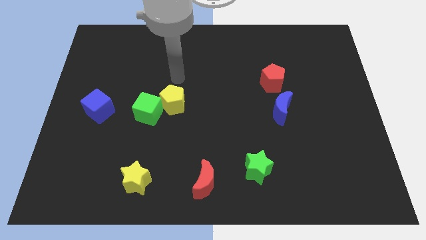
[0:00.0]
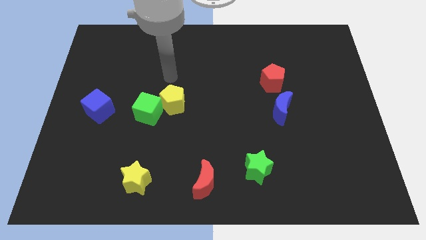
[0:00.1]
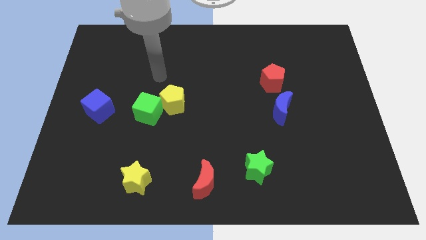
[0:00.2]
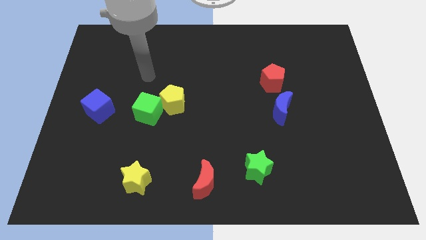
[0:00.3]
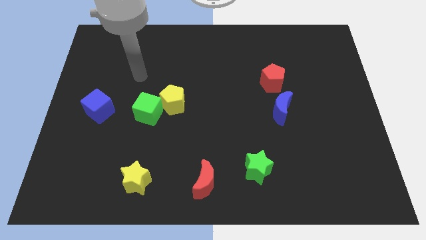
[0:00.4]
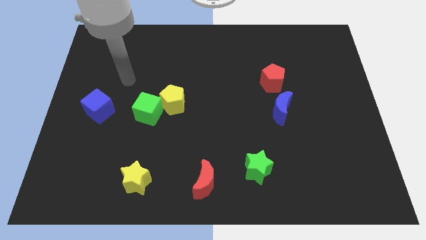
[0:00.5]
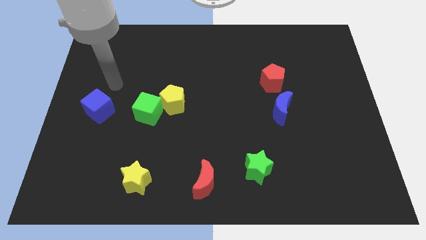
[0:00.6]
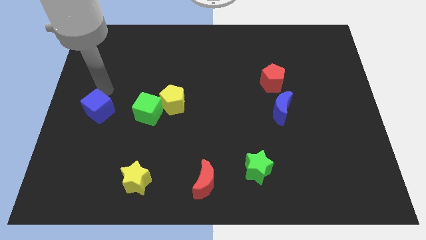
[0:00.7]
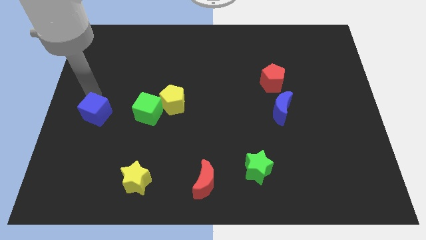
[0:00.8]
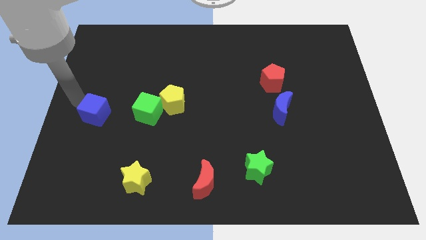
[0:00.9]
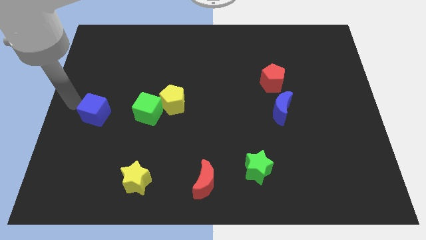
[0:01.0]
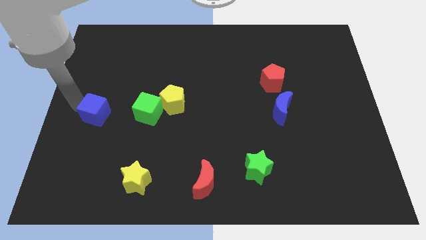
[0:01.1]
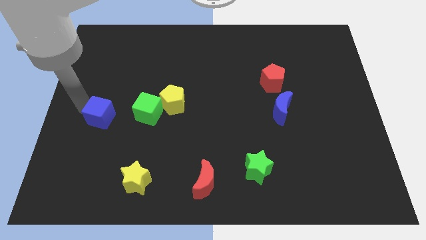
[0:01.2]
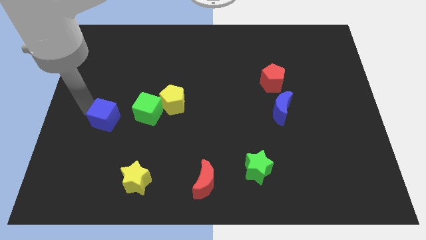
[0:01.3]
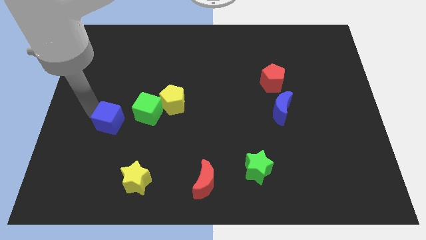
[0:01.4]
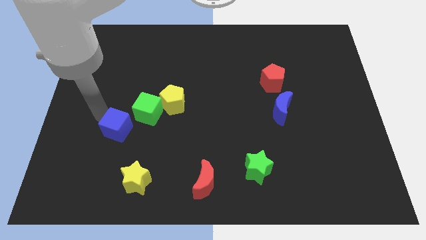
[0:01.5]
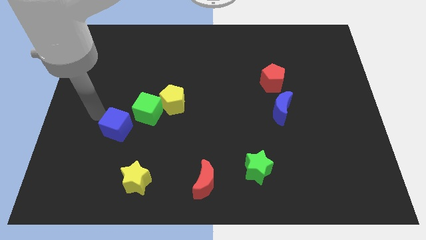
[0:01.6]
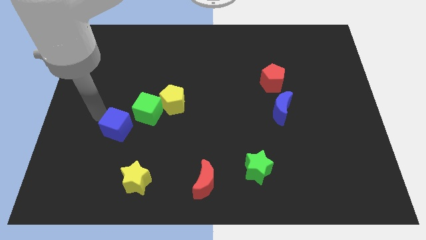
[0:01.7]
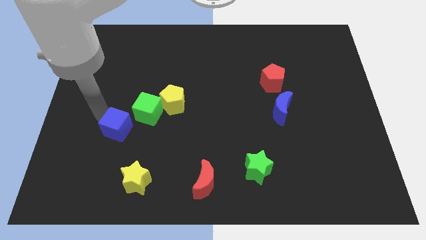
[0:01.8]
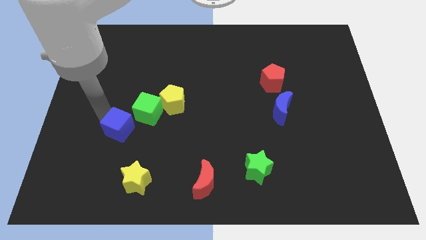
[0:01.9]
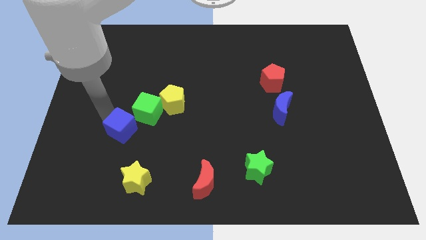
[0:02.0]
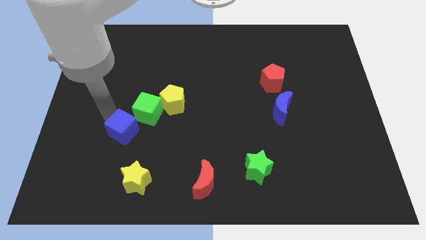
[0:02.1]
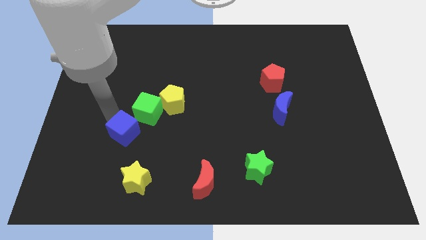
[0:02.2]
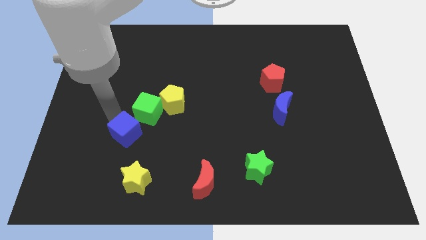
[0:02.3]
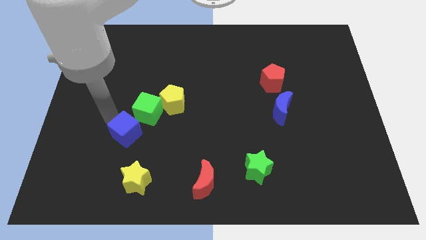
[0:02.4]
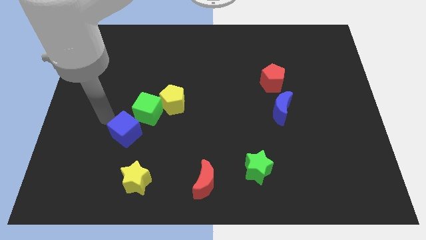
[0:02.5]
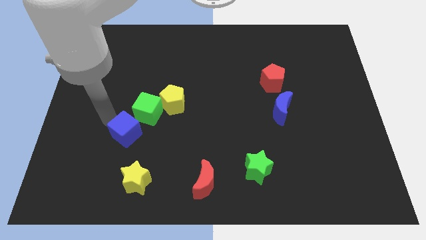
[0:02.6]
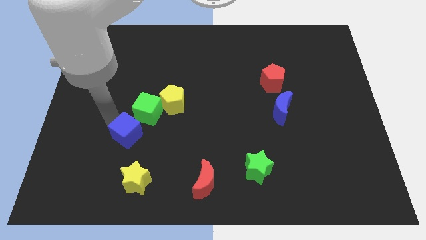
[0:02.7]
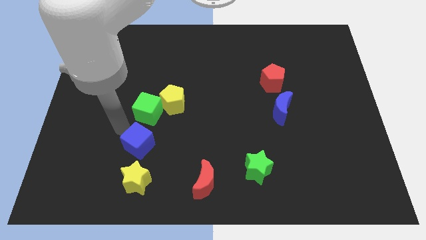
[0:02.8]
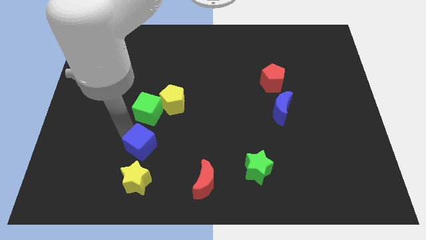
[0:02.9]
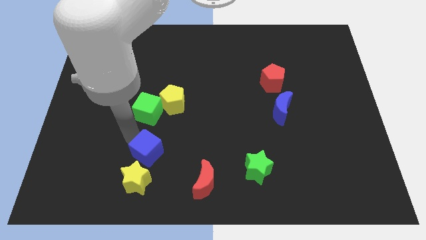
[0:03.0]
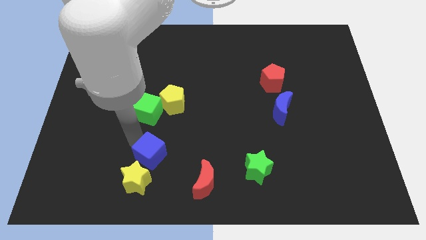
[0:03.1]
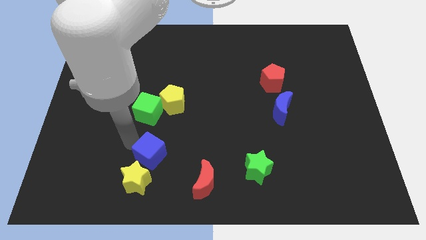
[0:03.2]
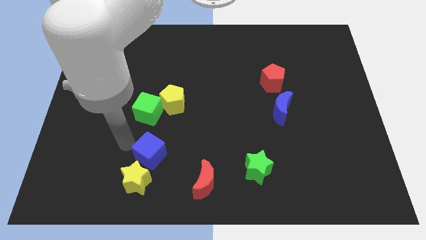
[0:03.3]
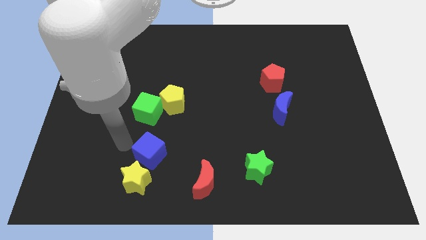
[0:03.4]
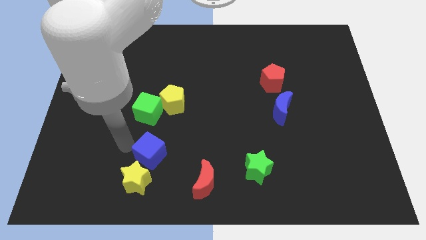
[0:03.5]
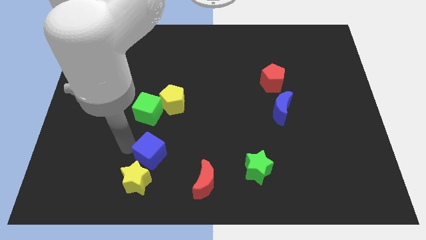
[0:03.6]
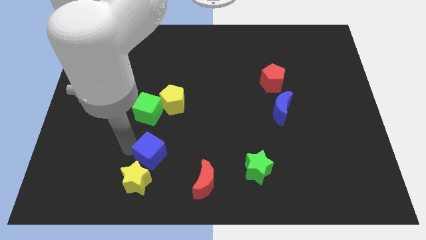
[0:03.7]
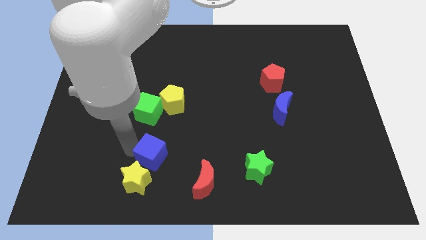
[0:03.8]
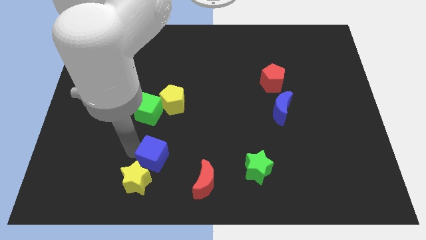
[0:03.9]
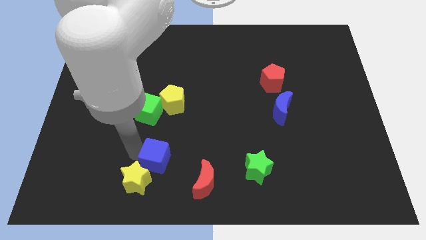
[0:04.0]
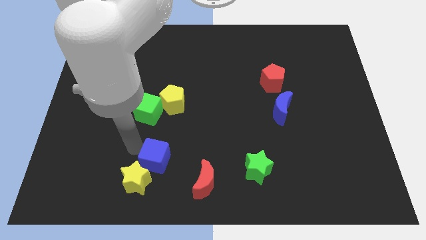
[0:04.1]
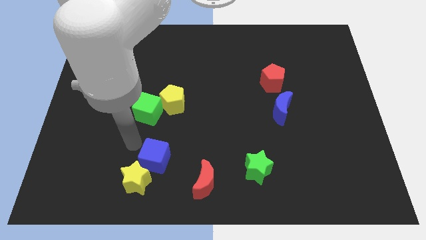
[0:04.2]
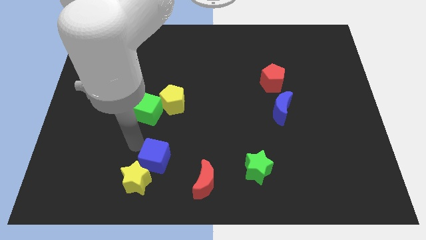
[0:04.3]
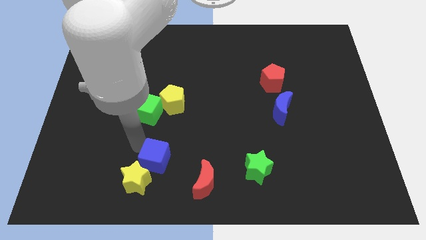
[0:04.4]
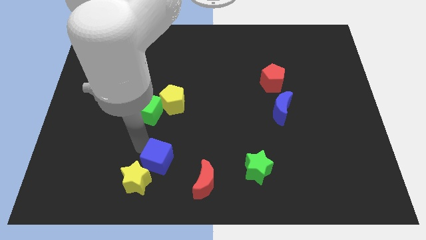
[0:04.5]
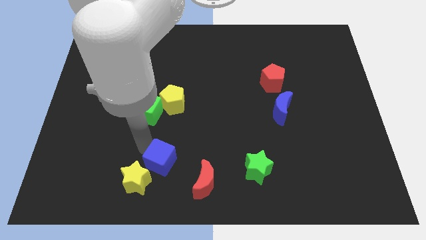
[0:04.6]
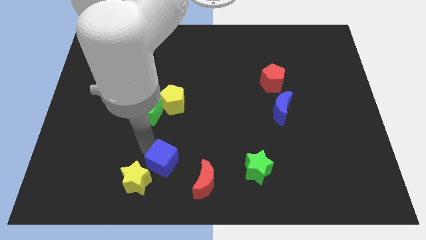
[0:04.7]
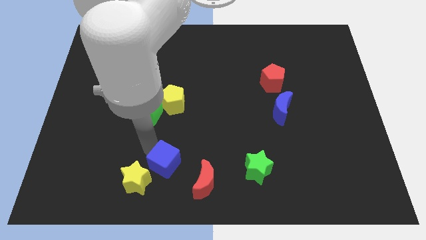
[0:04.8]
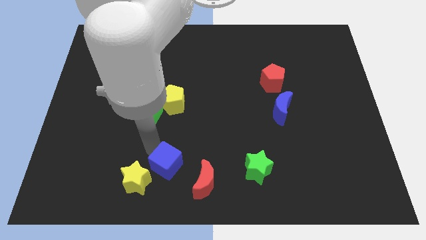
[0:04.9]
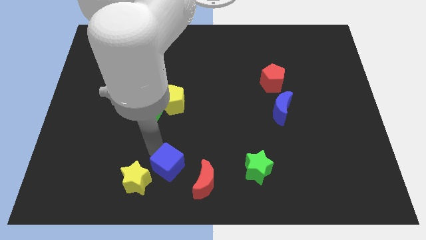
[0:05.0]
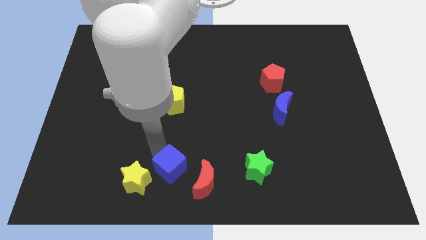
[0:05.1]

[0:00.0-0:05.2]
move the blue cube to the bottom

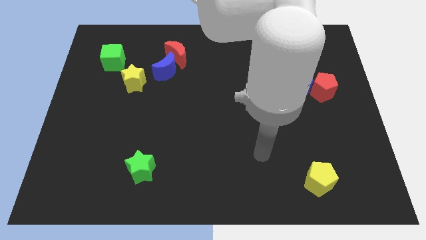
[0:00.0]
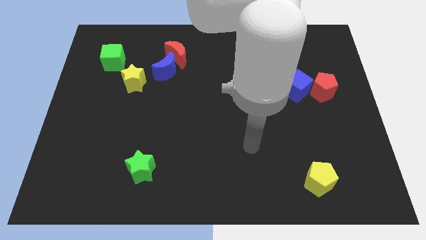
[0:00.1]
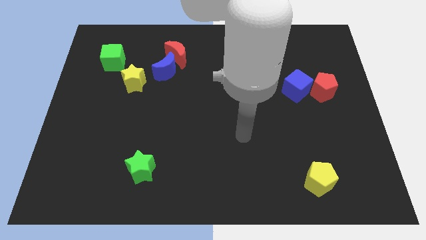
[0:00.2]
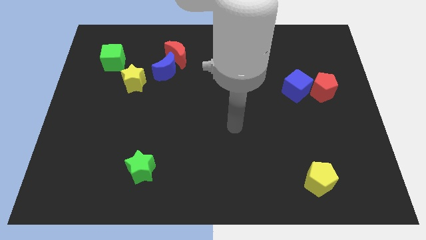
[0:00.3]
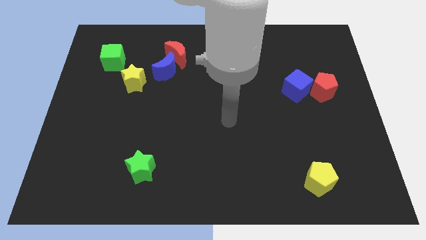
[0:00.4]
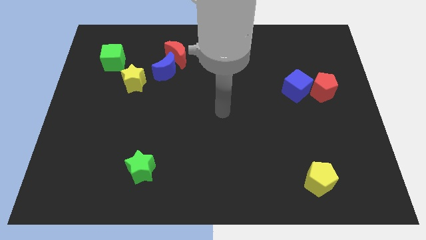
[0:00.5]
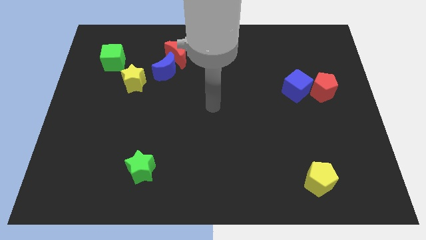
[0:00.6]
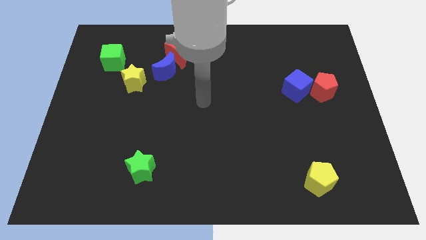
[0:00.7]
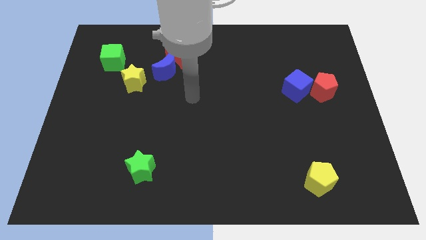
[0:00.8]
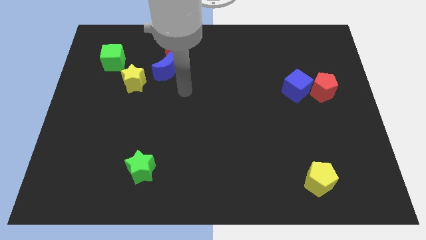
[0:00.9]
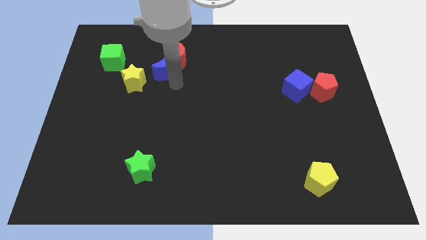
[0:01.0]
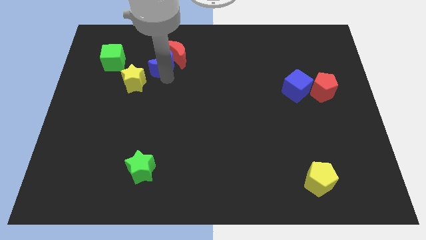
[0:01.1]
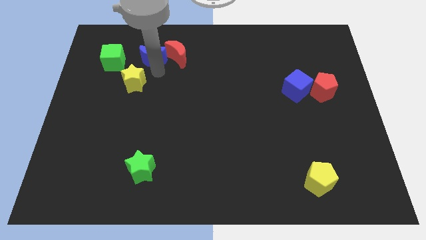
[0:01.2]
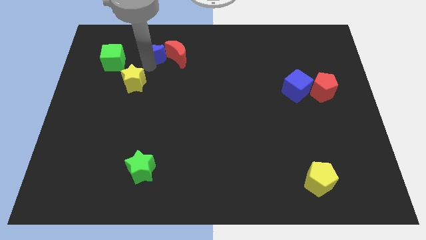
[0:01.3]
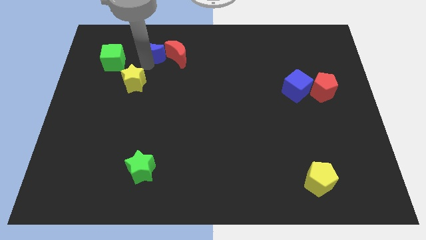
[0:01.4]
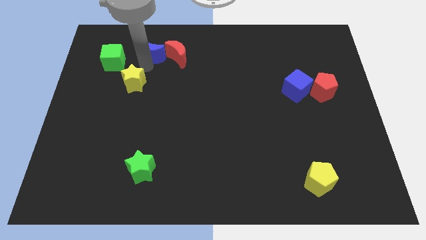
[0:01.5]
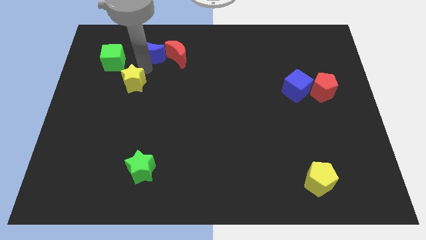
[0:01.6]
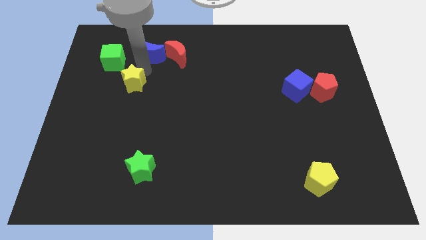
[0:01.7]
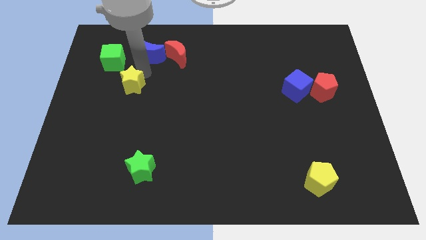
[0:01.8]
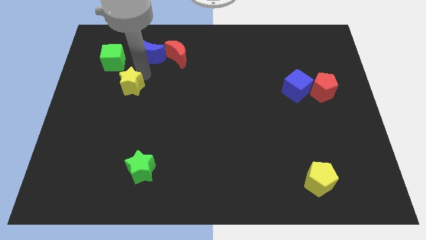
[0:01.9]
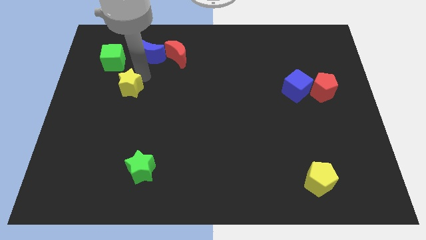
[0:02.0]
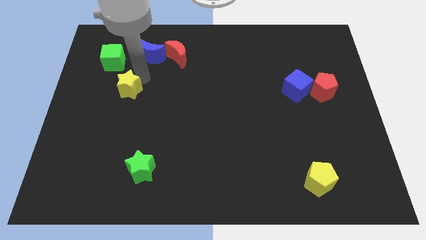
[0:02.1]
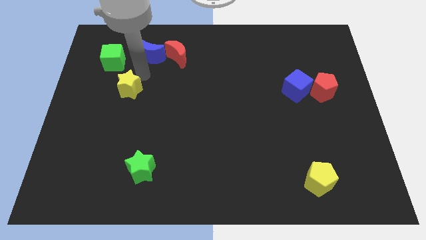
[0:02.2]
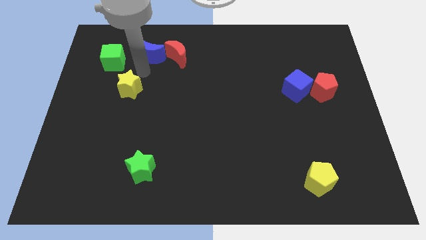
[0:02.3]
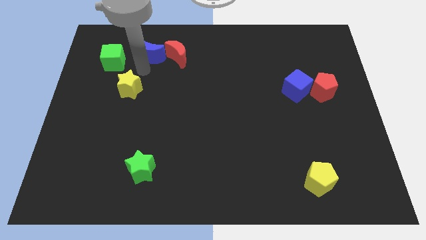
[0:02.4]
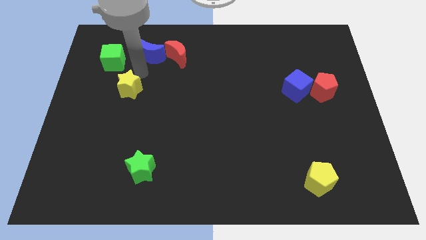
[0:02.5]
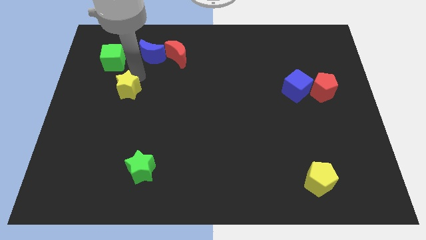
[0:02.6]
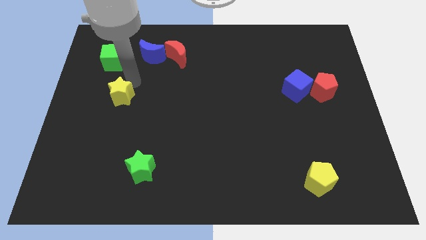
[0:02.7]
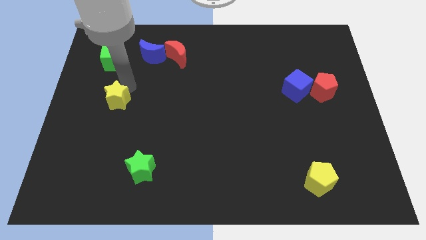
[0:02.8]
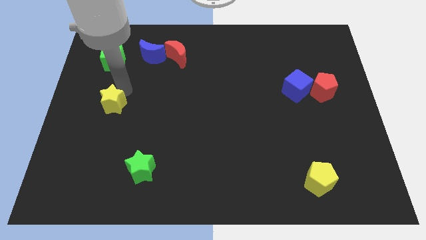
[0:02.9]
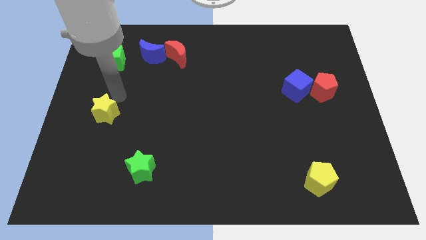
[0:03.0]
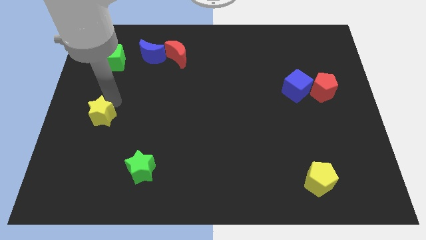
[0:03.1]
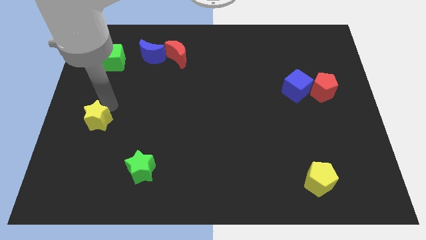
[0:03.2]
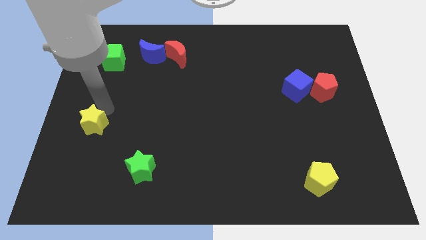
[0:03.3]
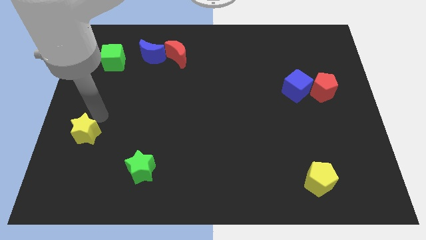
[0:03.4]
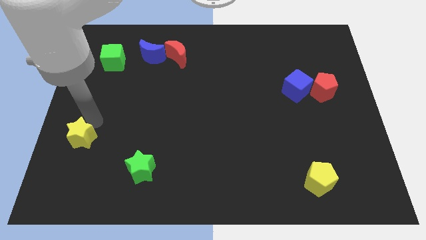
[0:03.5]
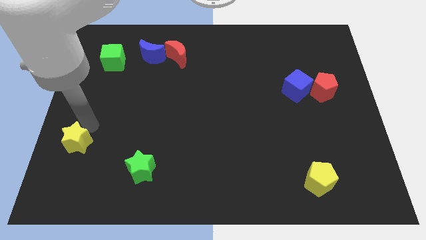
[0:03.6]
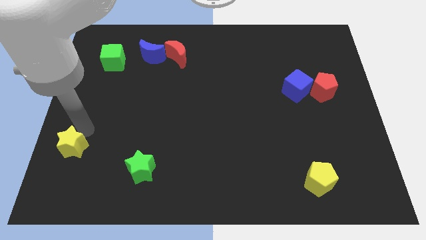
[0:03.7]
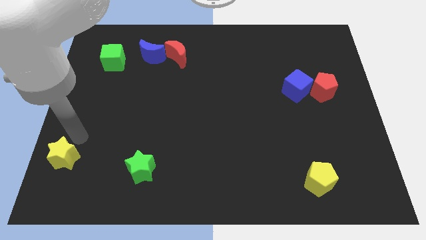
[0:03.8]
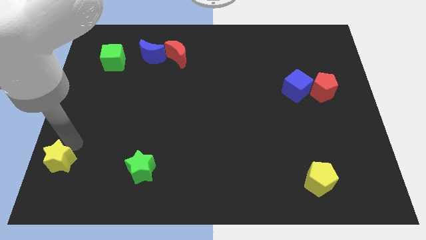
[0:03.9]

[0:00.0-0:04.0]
push the yellow star to the bottom left corner
